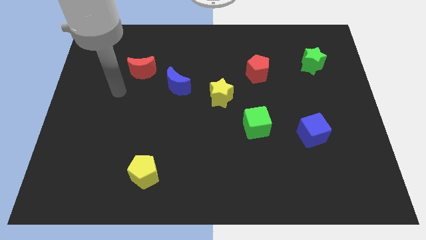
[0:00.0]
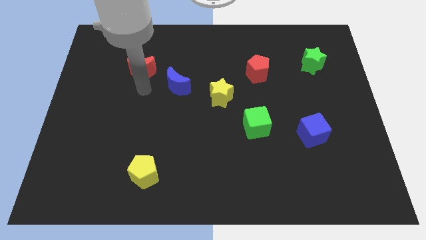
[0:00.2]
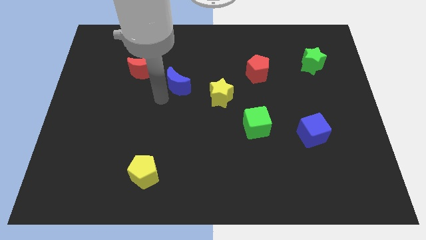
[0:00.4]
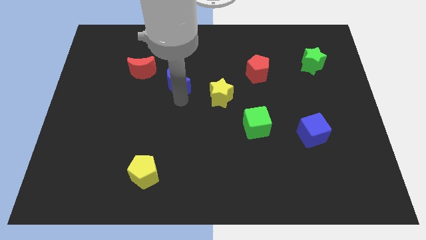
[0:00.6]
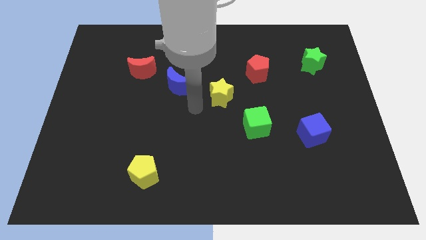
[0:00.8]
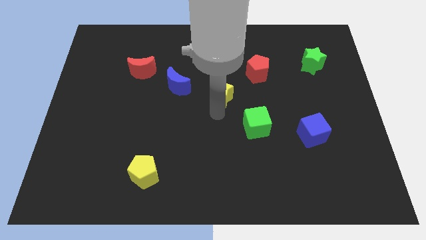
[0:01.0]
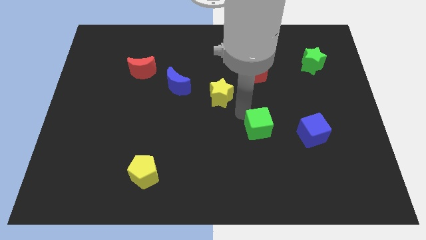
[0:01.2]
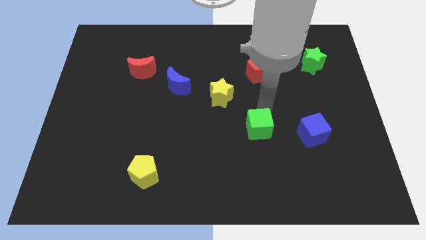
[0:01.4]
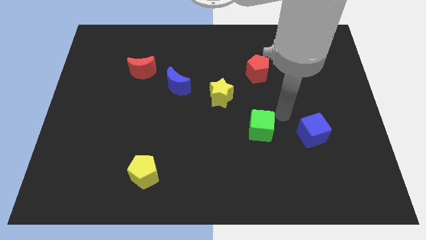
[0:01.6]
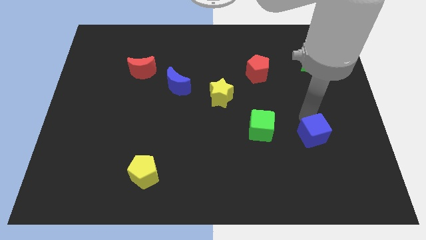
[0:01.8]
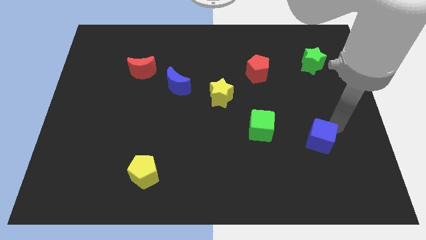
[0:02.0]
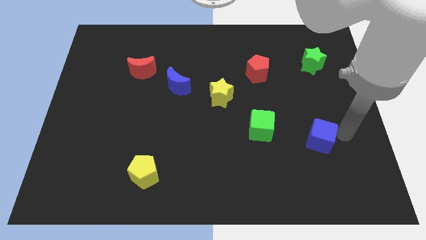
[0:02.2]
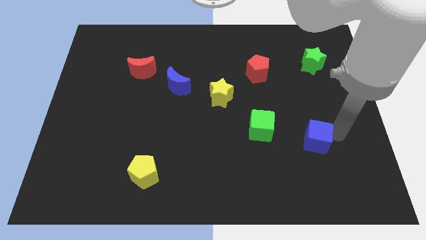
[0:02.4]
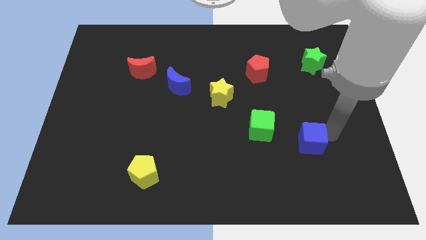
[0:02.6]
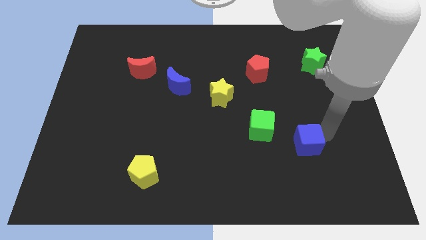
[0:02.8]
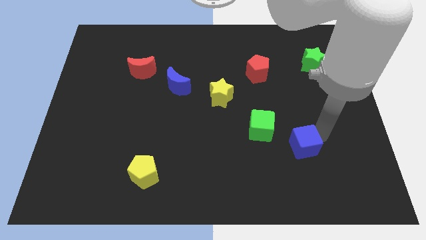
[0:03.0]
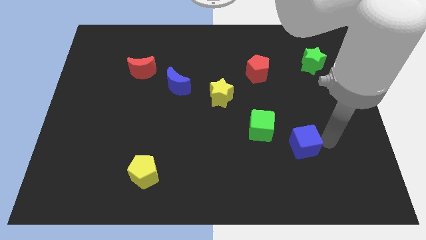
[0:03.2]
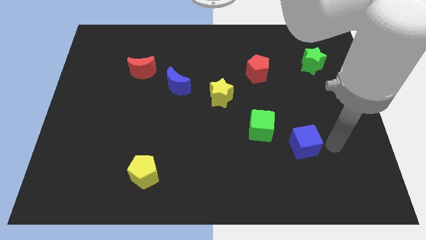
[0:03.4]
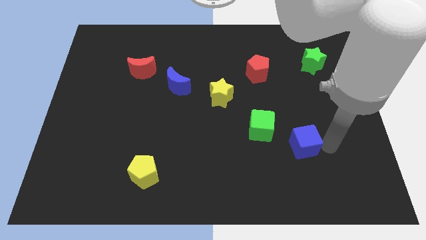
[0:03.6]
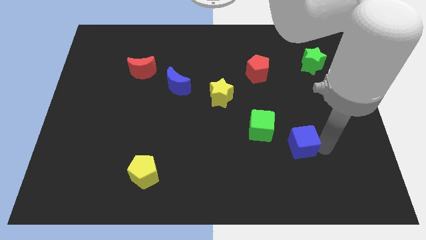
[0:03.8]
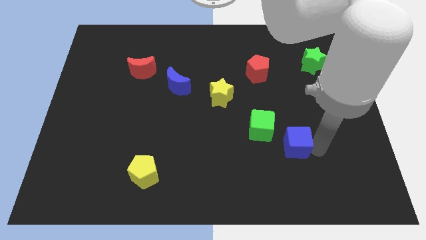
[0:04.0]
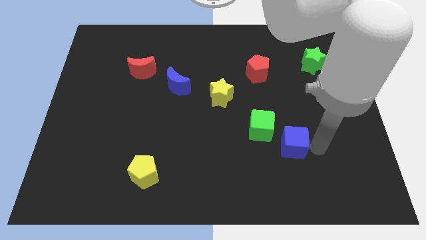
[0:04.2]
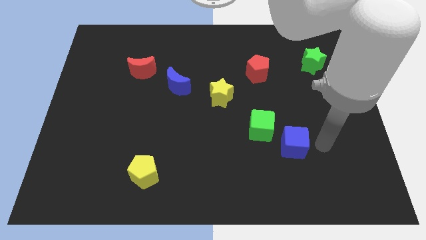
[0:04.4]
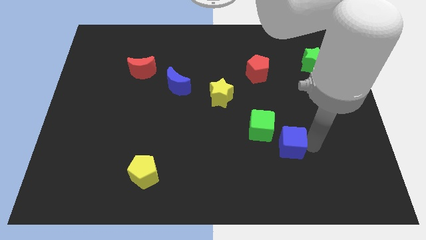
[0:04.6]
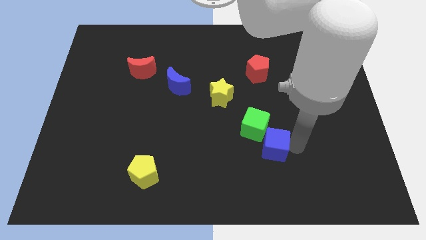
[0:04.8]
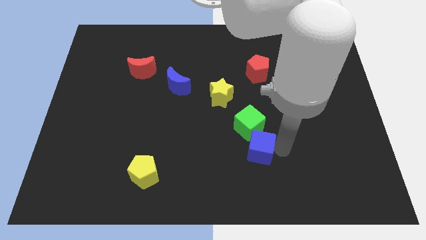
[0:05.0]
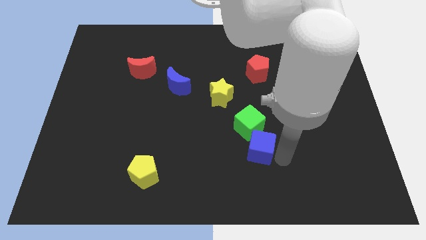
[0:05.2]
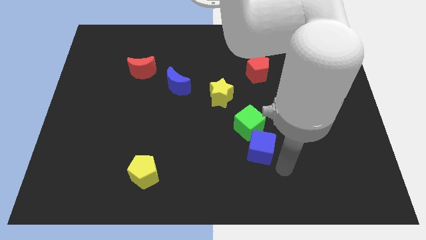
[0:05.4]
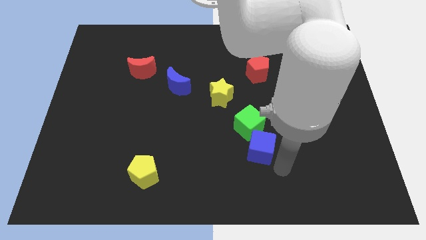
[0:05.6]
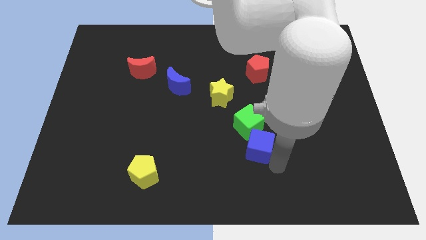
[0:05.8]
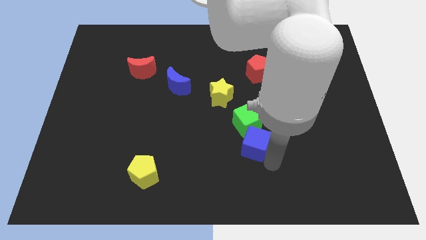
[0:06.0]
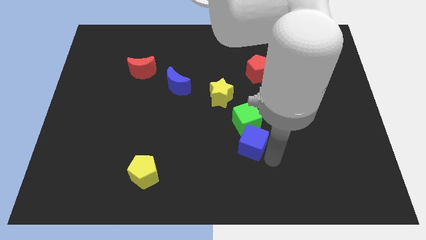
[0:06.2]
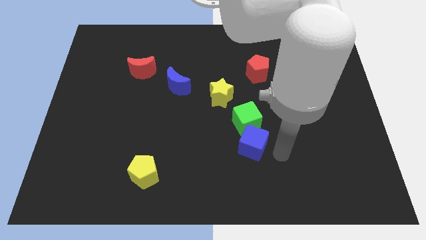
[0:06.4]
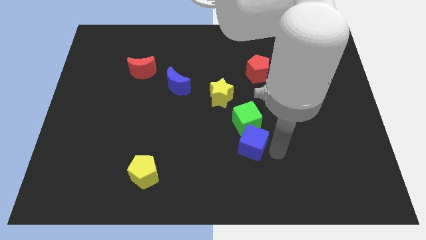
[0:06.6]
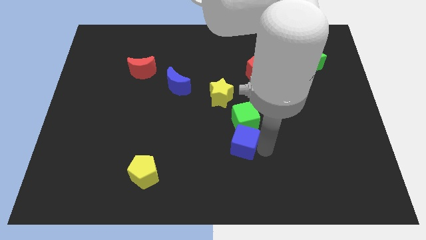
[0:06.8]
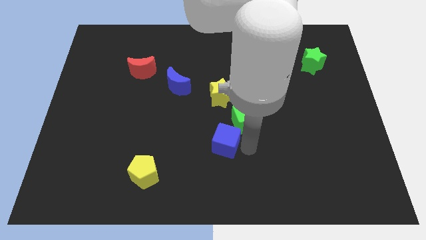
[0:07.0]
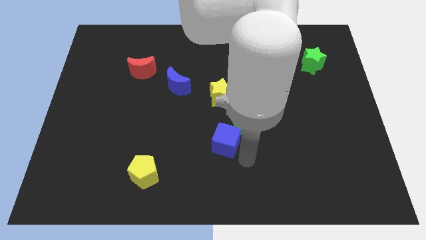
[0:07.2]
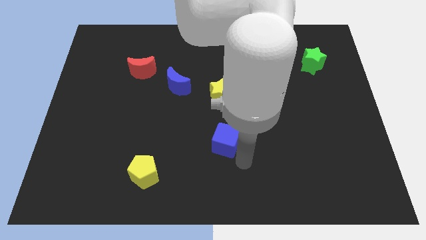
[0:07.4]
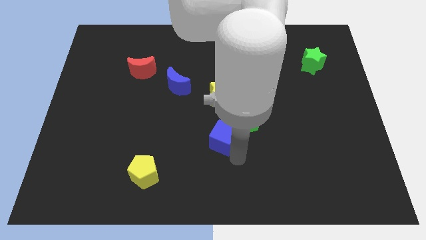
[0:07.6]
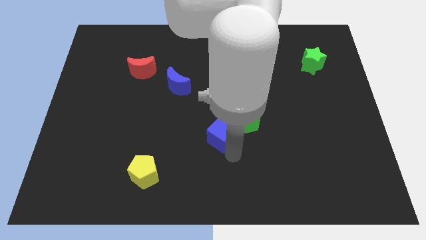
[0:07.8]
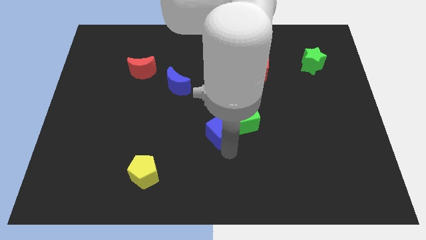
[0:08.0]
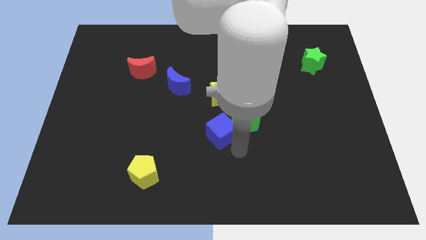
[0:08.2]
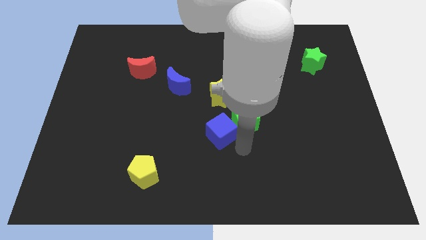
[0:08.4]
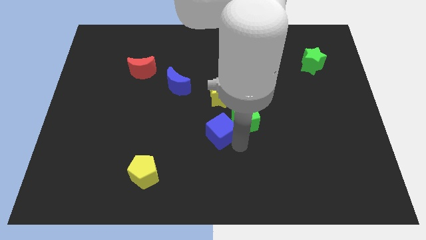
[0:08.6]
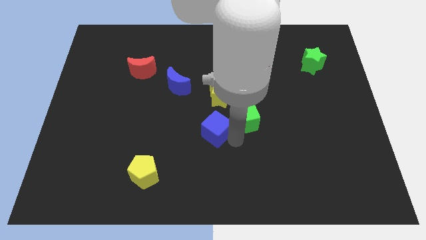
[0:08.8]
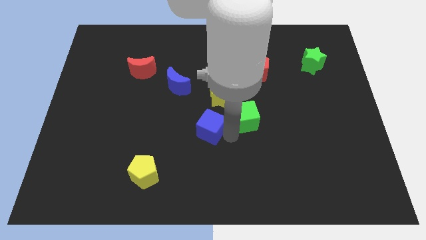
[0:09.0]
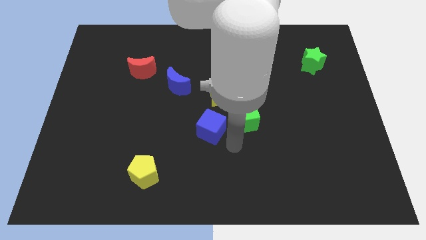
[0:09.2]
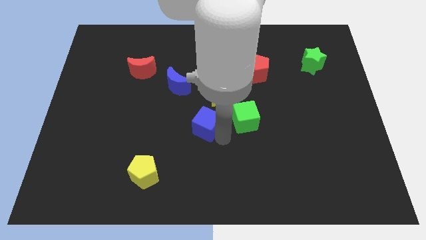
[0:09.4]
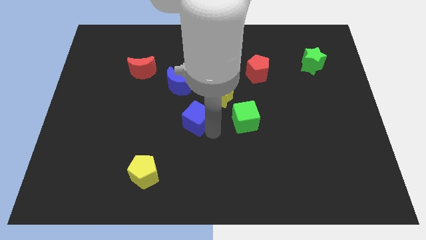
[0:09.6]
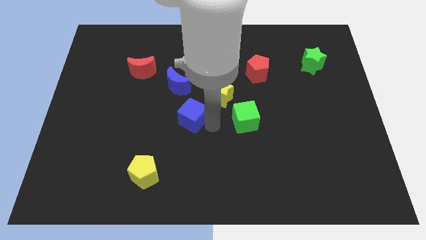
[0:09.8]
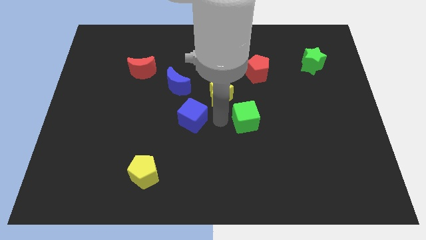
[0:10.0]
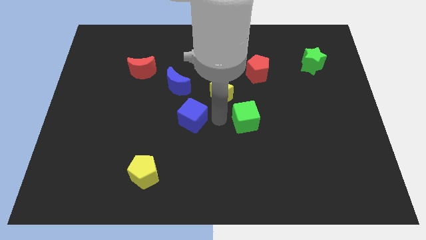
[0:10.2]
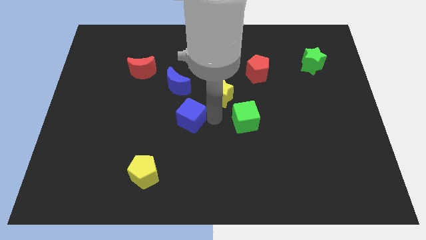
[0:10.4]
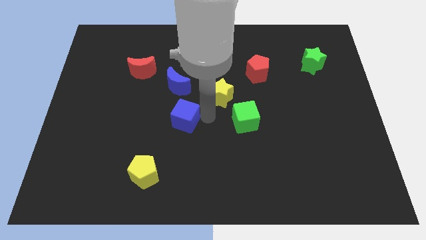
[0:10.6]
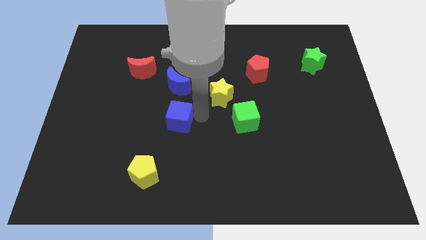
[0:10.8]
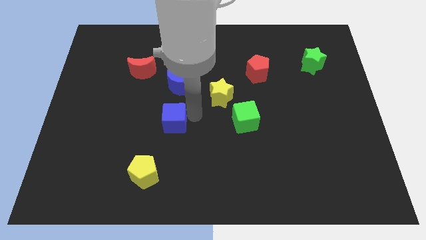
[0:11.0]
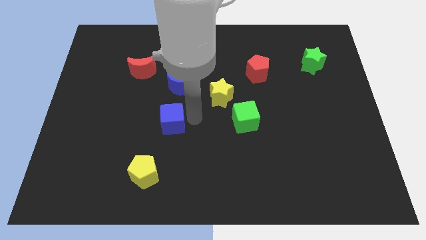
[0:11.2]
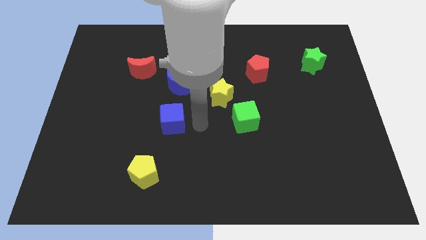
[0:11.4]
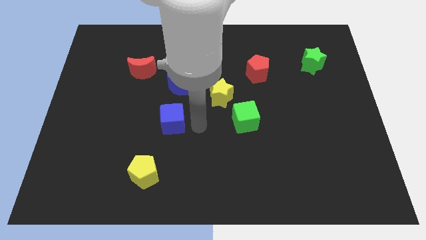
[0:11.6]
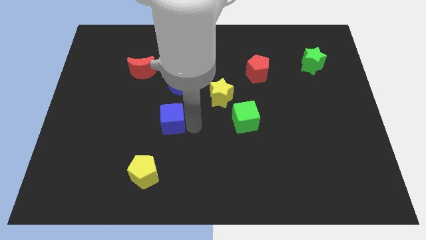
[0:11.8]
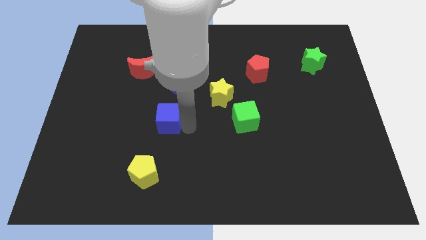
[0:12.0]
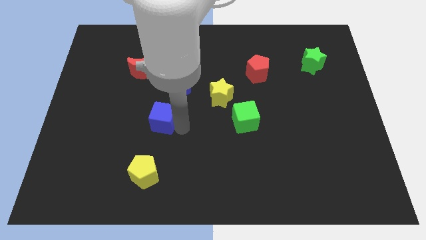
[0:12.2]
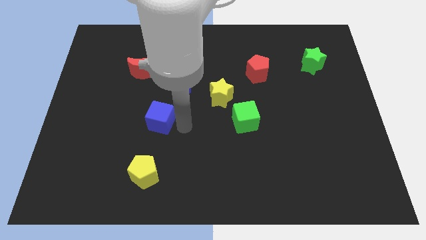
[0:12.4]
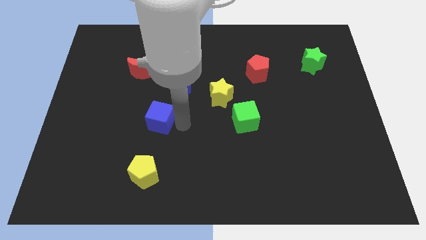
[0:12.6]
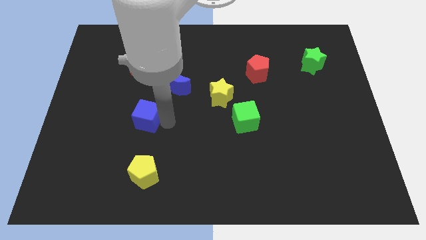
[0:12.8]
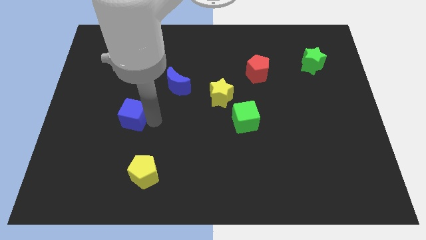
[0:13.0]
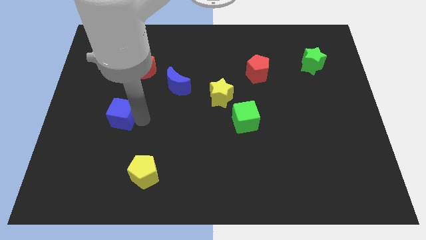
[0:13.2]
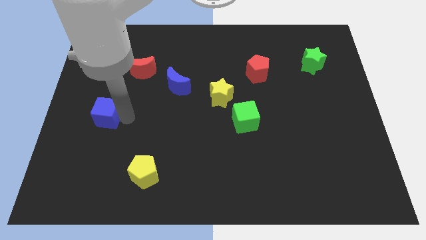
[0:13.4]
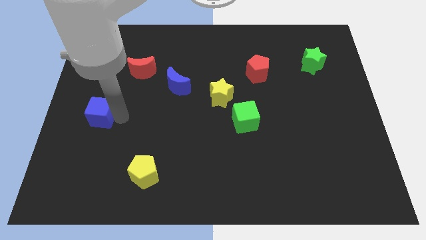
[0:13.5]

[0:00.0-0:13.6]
push the blue cube to the left side
